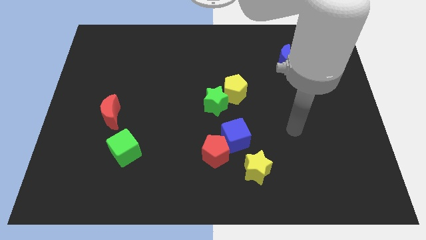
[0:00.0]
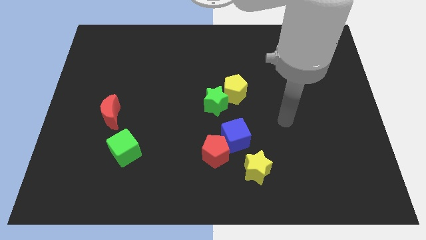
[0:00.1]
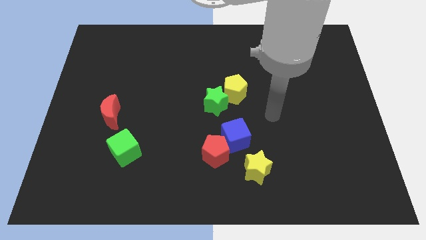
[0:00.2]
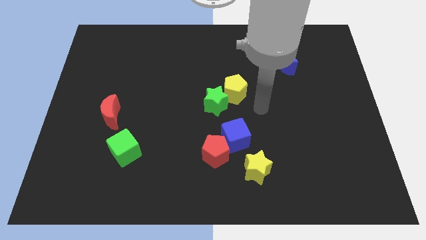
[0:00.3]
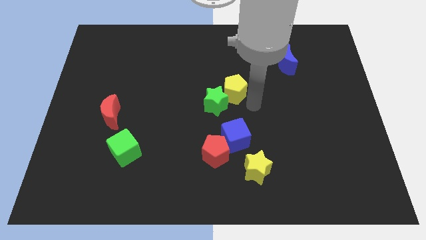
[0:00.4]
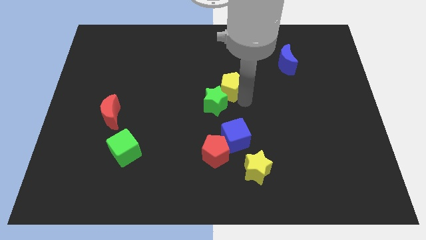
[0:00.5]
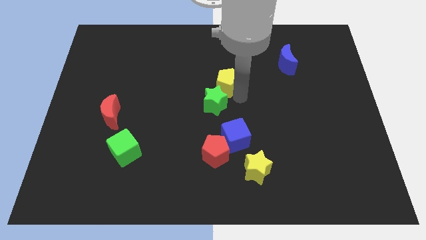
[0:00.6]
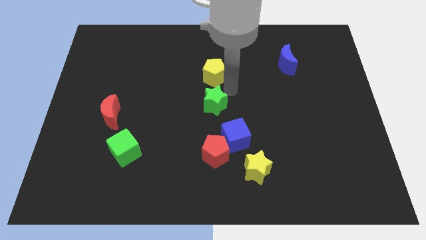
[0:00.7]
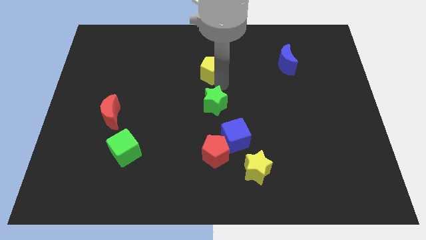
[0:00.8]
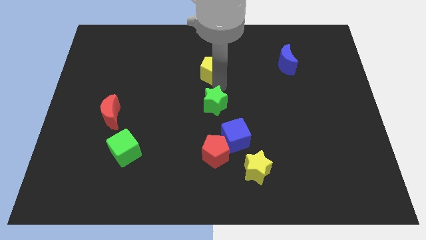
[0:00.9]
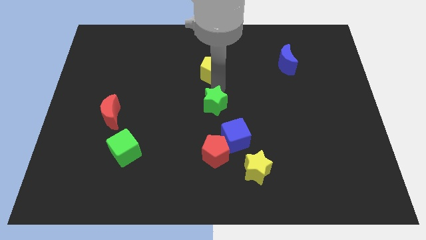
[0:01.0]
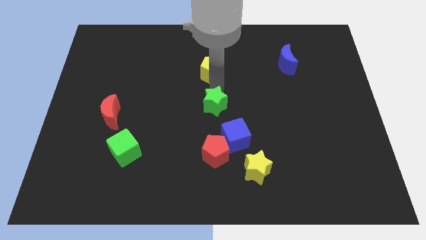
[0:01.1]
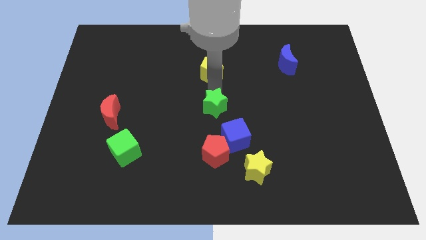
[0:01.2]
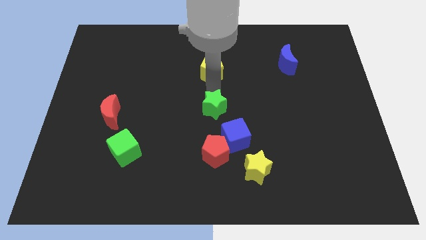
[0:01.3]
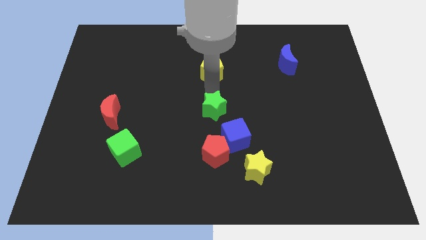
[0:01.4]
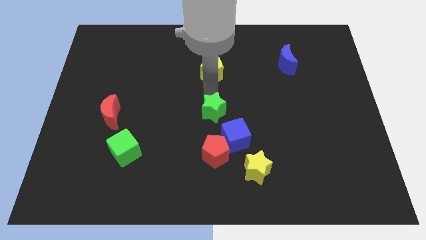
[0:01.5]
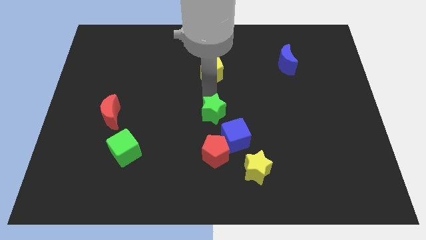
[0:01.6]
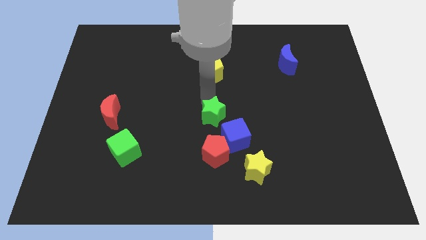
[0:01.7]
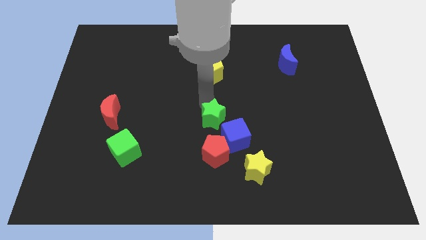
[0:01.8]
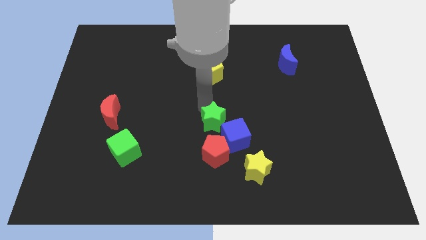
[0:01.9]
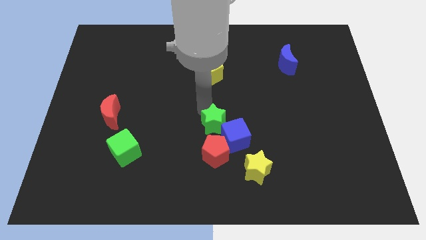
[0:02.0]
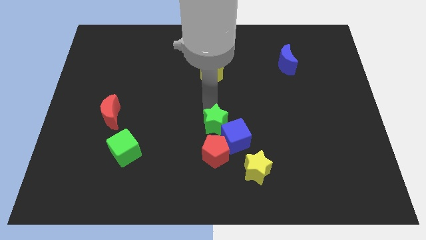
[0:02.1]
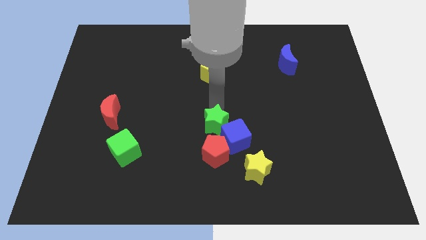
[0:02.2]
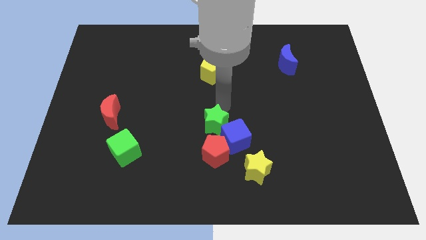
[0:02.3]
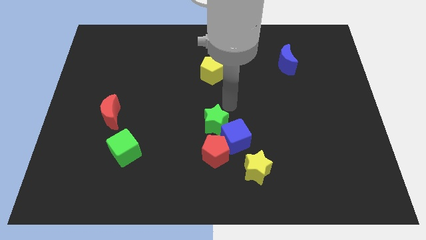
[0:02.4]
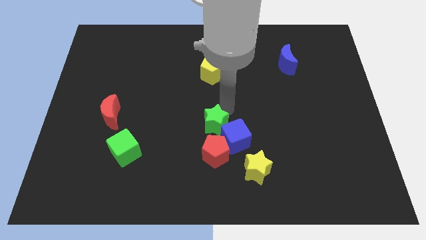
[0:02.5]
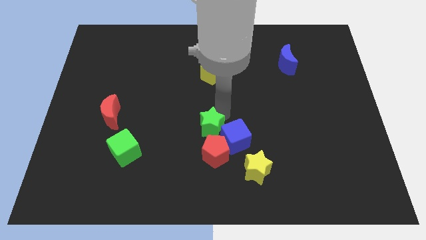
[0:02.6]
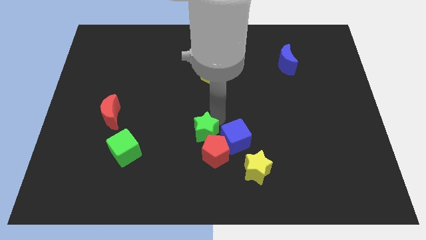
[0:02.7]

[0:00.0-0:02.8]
move the green star slightly downwards

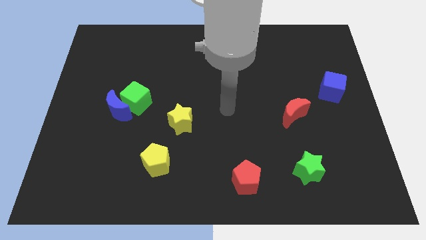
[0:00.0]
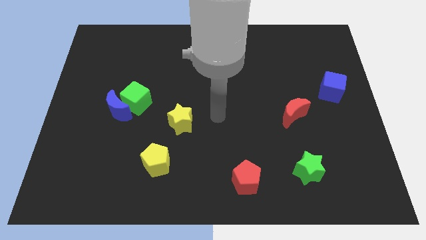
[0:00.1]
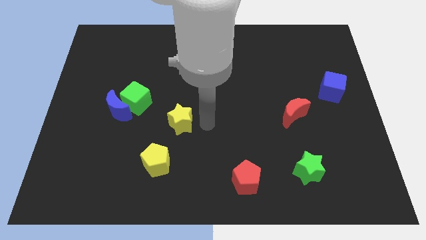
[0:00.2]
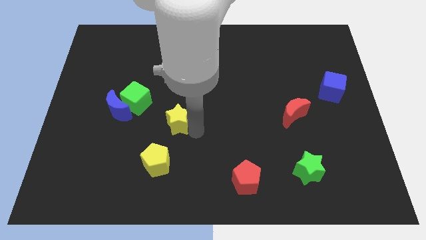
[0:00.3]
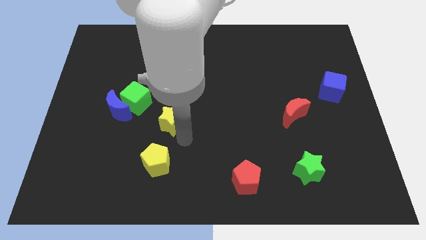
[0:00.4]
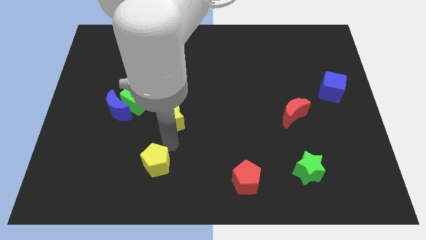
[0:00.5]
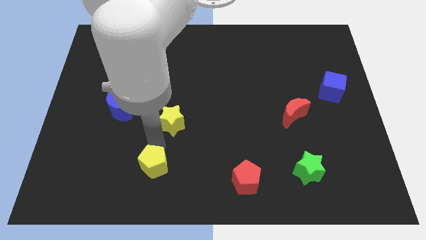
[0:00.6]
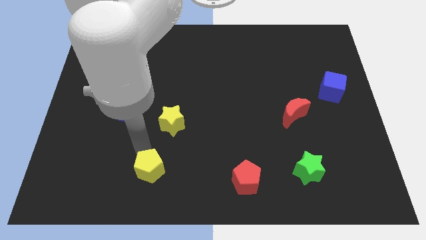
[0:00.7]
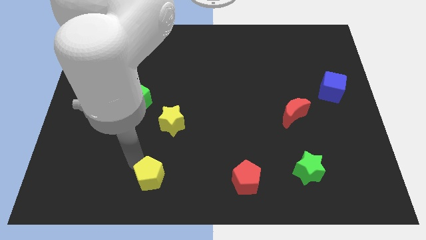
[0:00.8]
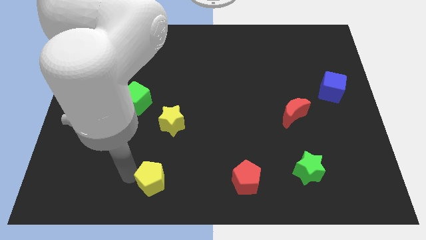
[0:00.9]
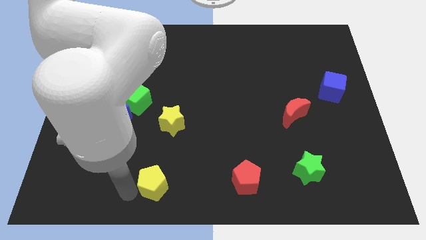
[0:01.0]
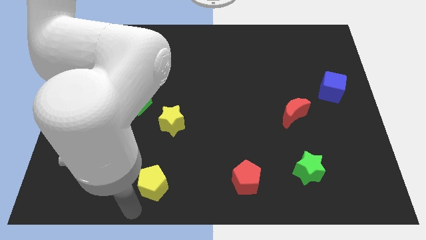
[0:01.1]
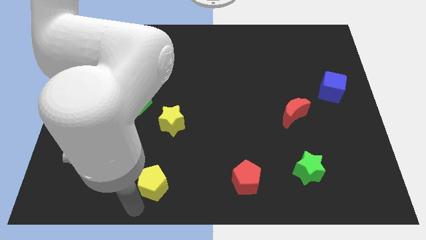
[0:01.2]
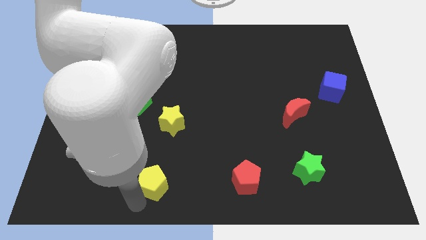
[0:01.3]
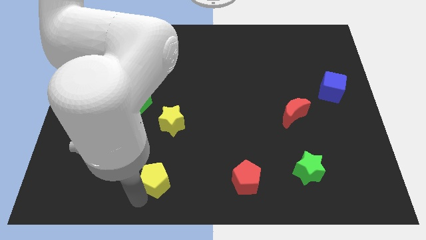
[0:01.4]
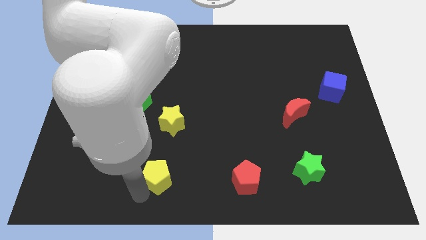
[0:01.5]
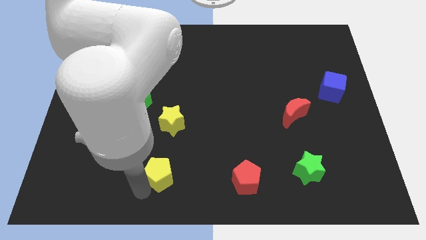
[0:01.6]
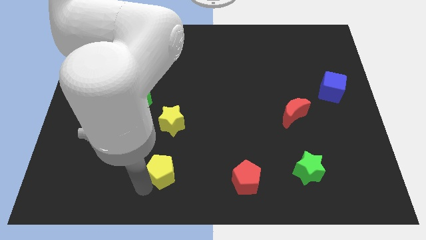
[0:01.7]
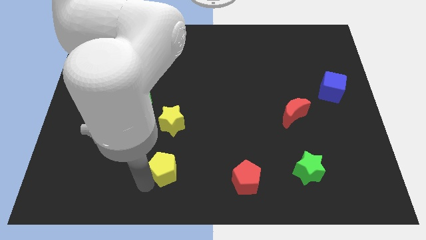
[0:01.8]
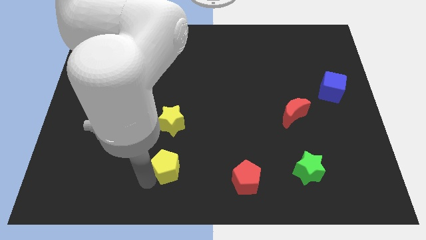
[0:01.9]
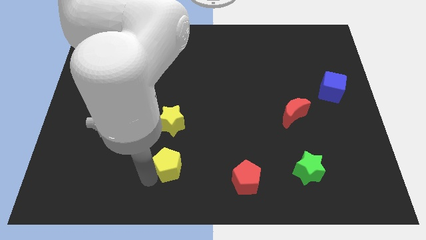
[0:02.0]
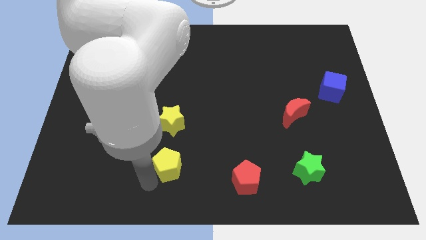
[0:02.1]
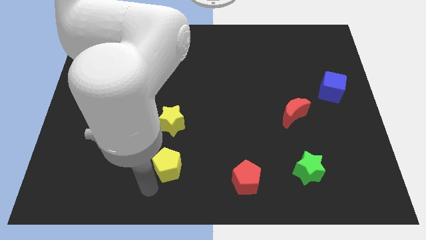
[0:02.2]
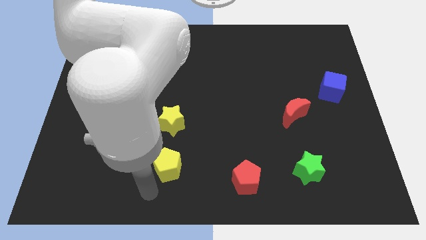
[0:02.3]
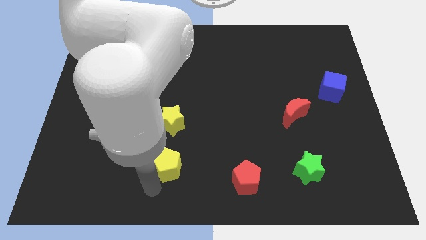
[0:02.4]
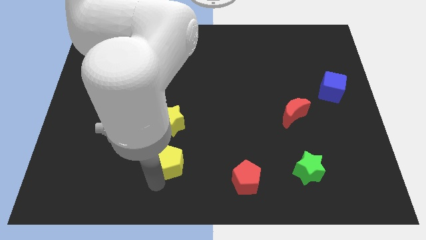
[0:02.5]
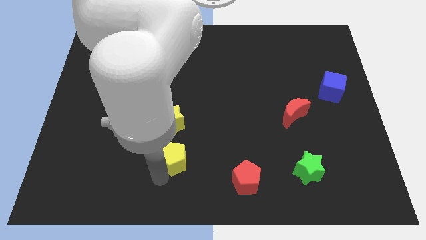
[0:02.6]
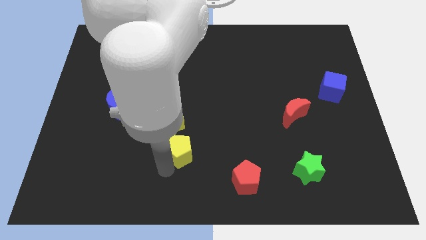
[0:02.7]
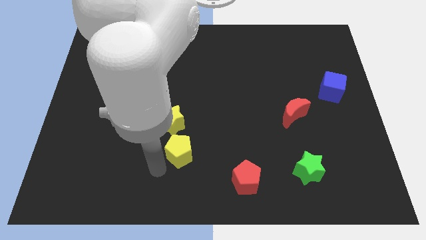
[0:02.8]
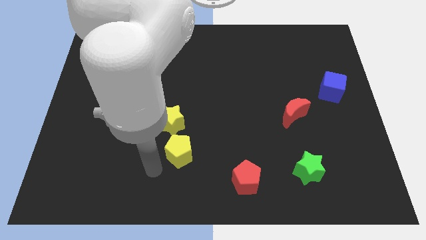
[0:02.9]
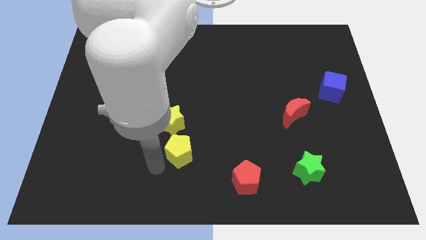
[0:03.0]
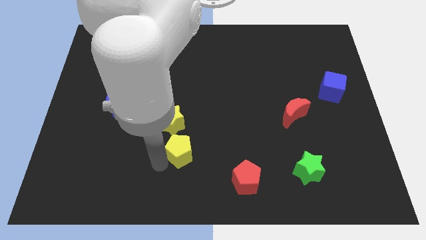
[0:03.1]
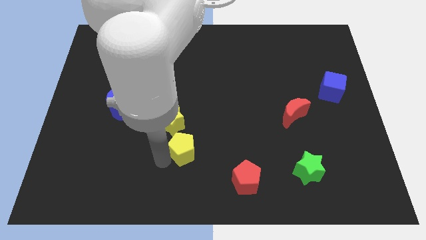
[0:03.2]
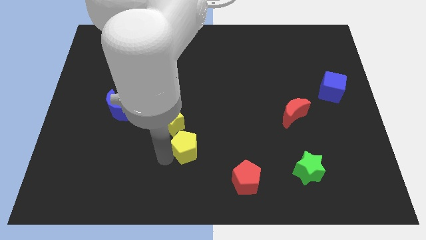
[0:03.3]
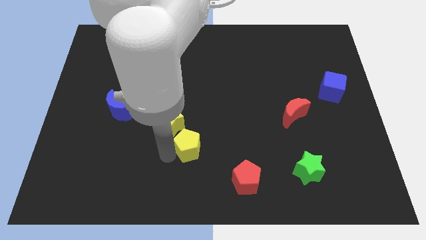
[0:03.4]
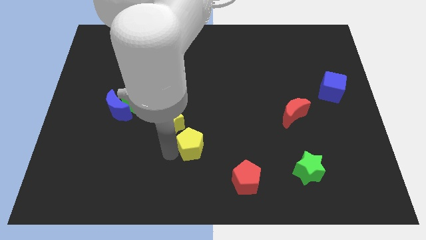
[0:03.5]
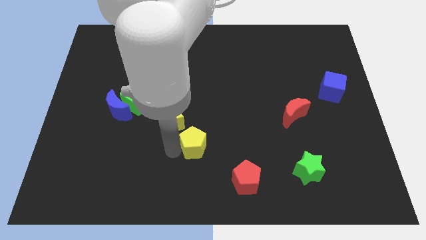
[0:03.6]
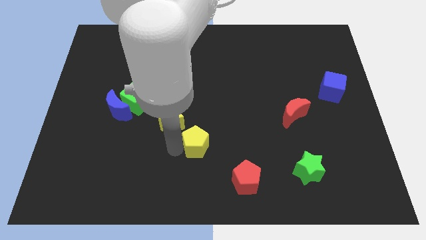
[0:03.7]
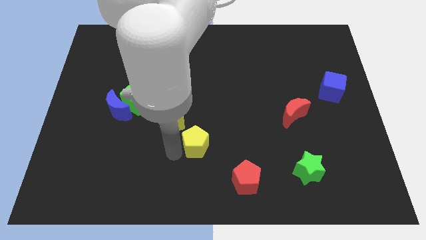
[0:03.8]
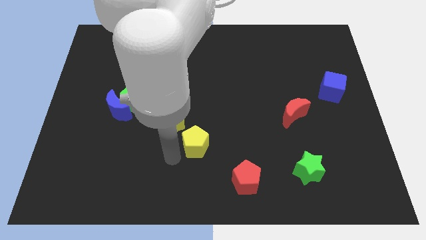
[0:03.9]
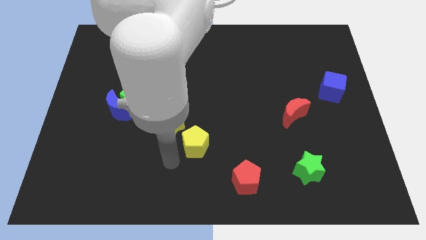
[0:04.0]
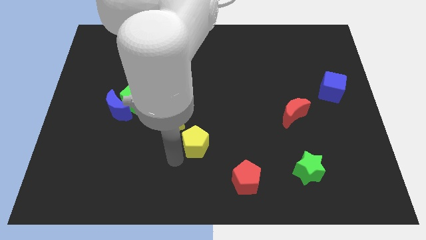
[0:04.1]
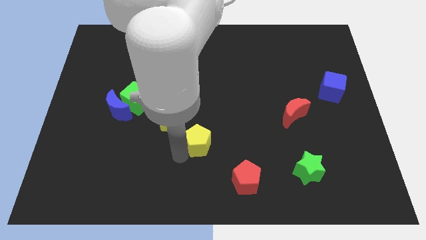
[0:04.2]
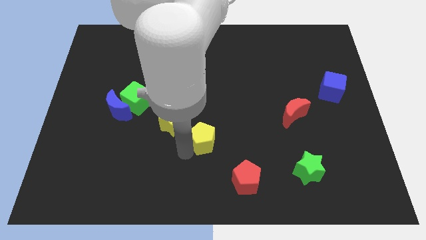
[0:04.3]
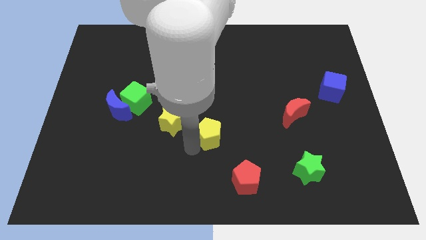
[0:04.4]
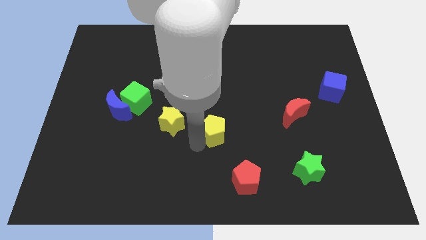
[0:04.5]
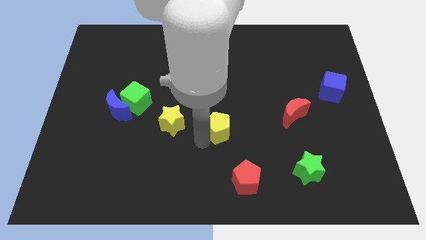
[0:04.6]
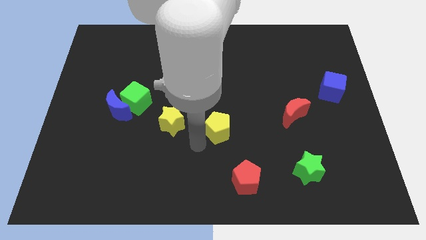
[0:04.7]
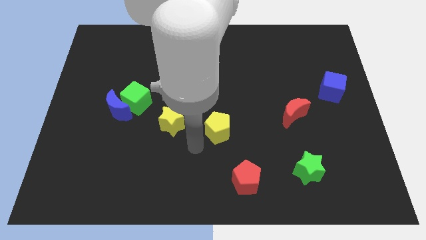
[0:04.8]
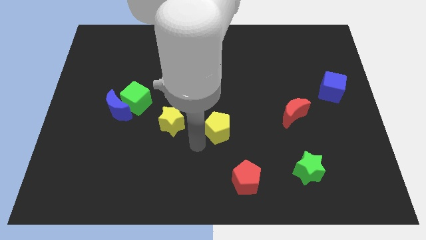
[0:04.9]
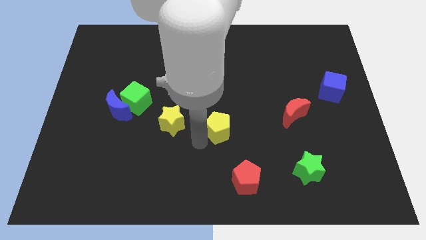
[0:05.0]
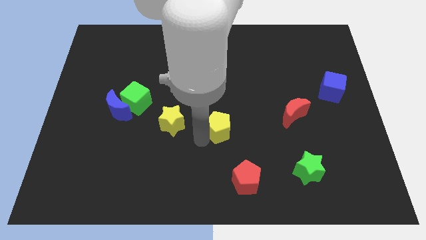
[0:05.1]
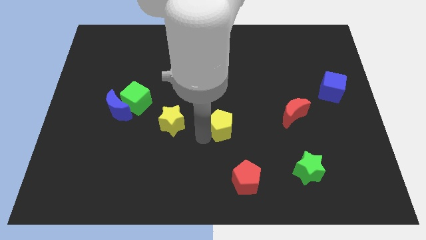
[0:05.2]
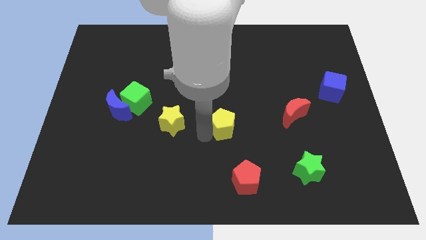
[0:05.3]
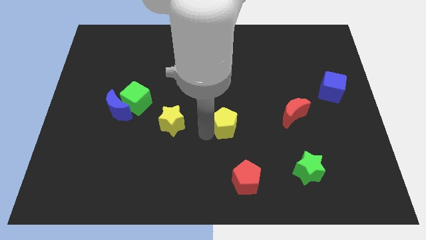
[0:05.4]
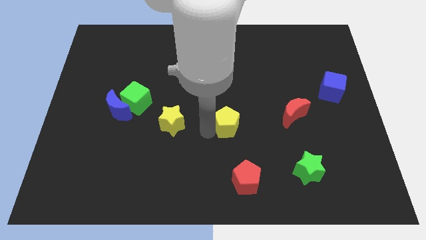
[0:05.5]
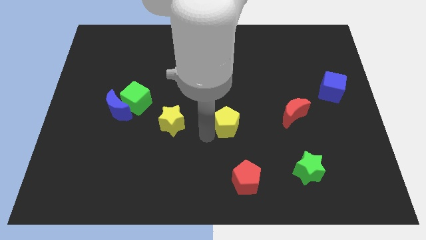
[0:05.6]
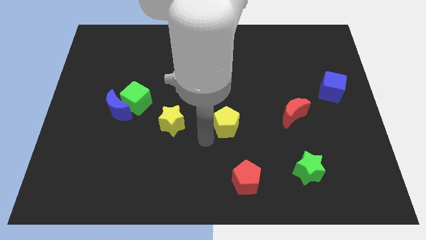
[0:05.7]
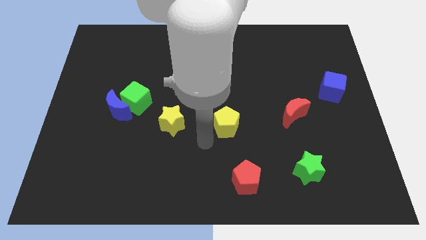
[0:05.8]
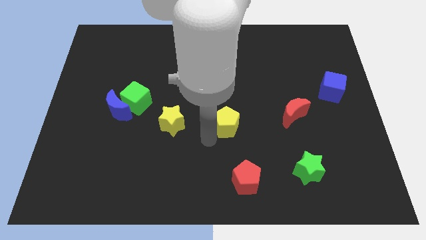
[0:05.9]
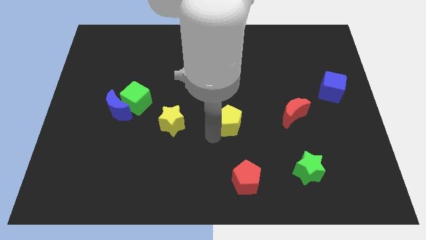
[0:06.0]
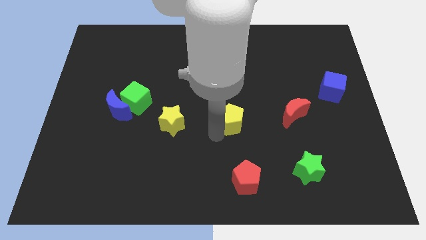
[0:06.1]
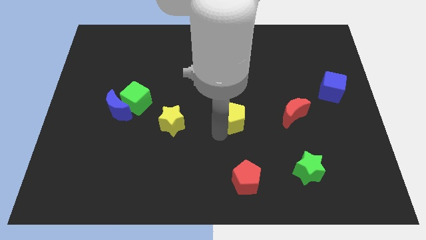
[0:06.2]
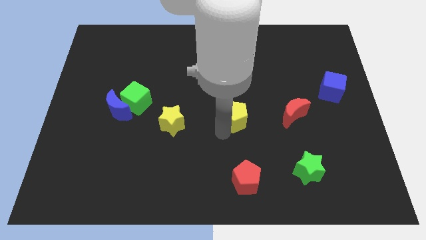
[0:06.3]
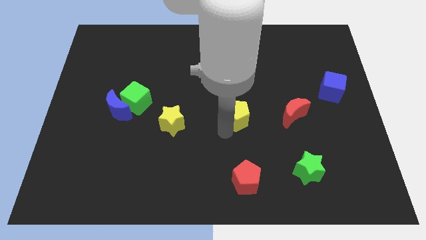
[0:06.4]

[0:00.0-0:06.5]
move the yellow pentagon up and right
